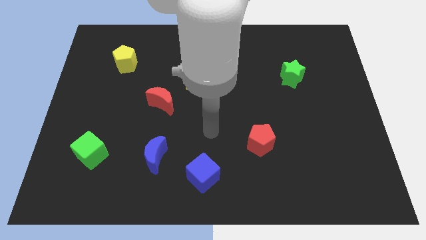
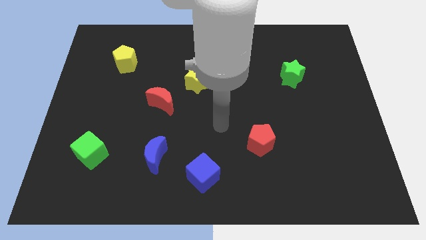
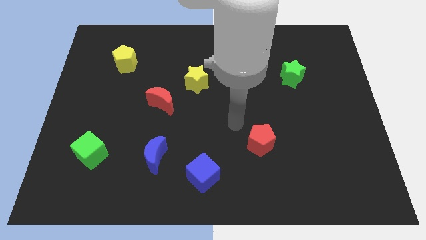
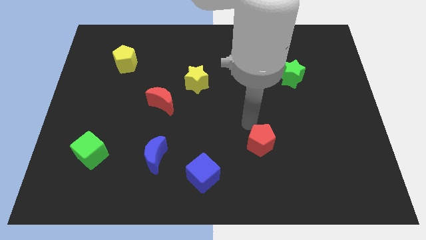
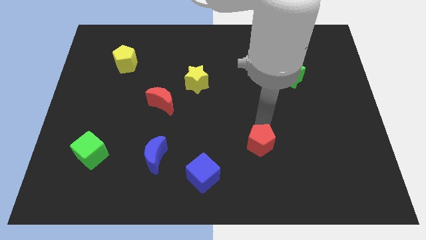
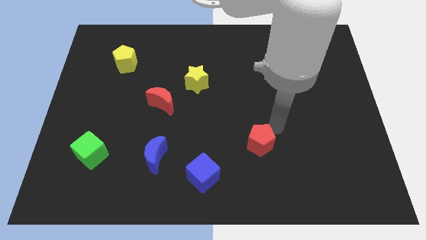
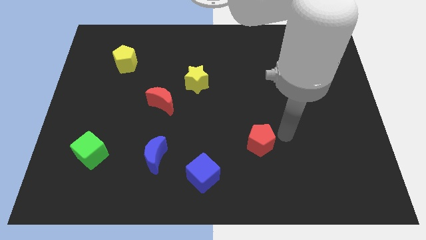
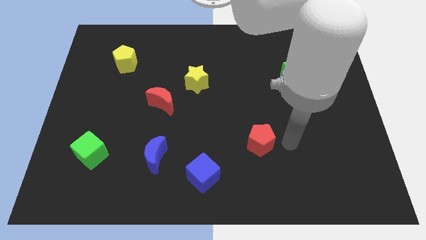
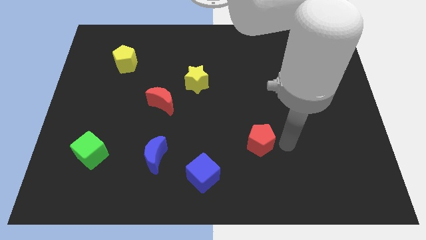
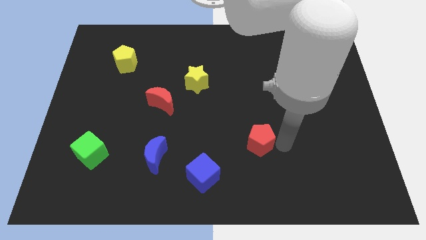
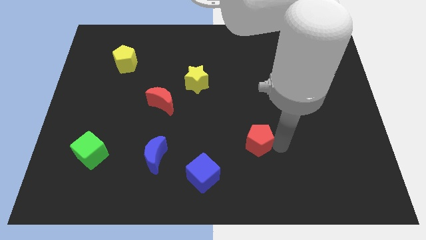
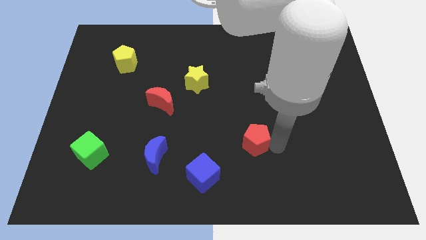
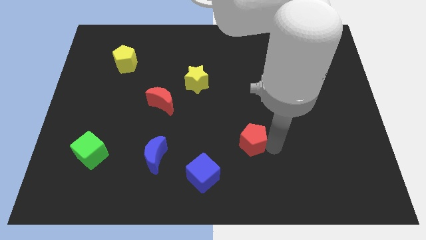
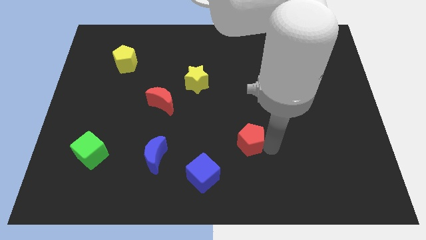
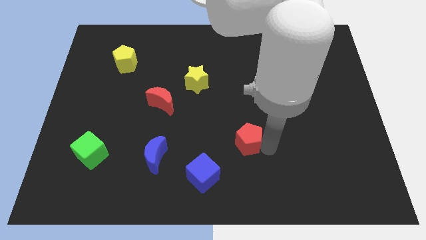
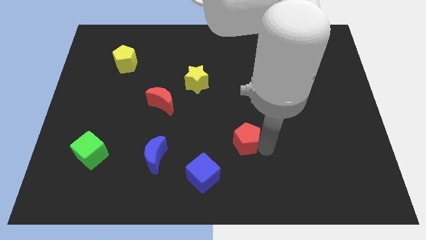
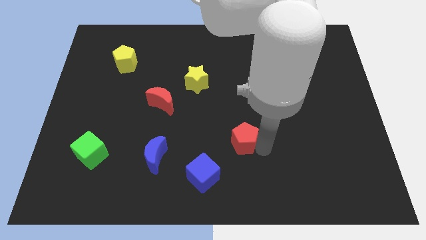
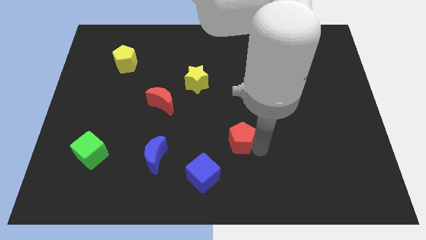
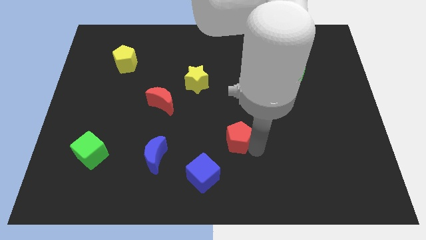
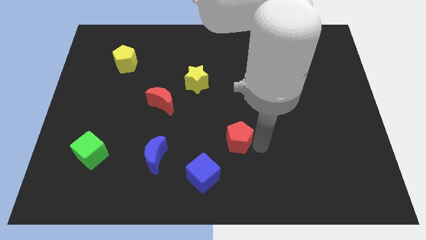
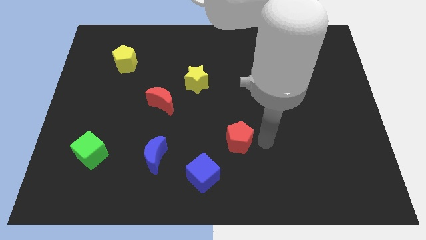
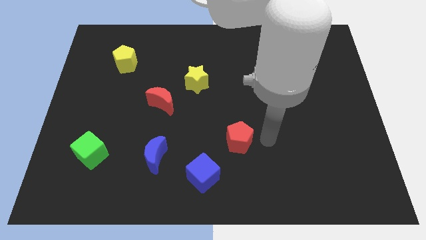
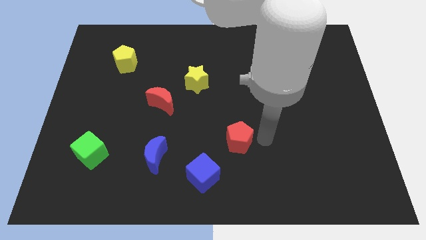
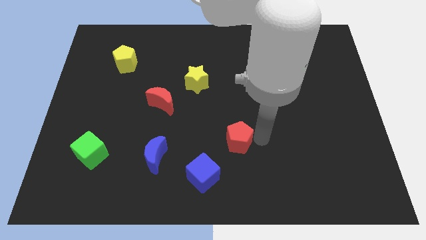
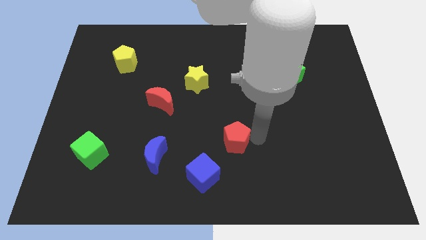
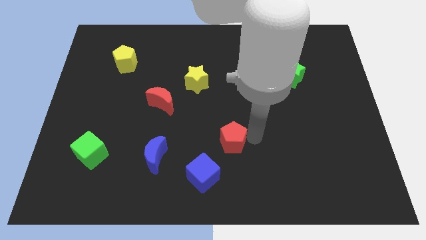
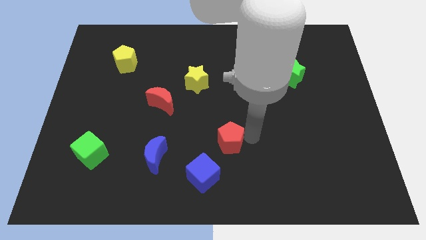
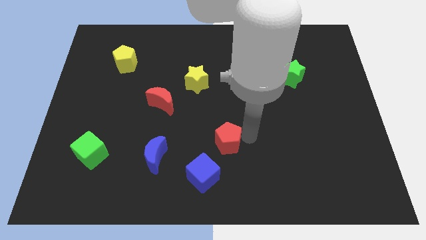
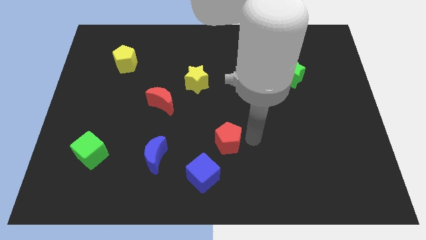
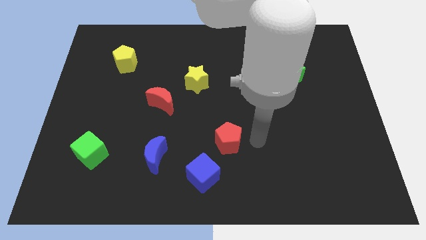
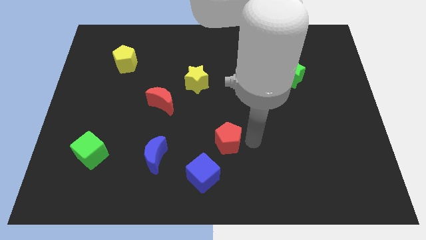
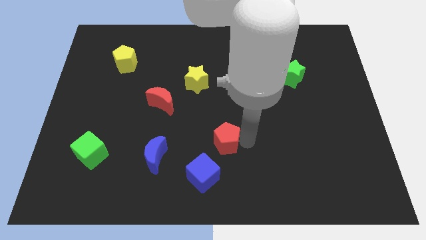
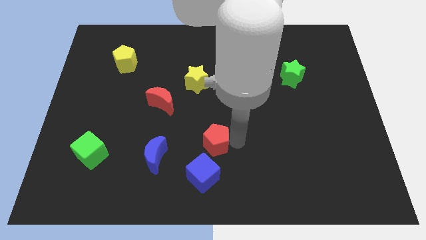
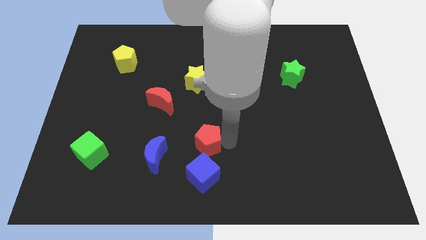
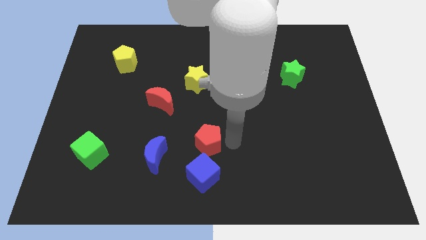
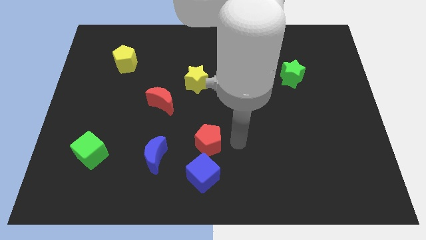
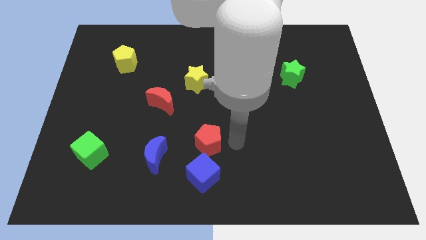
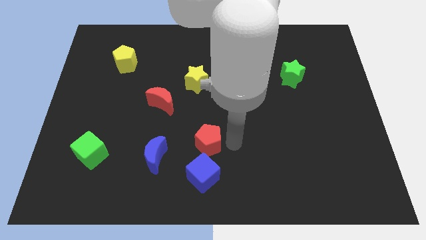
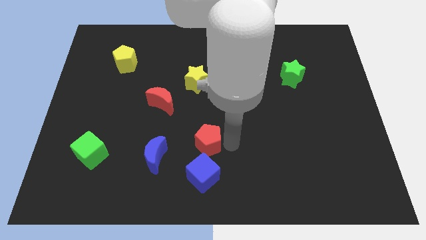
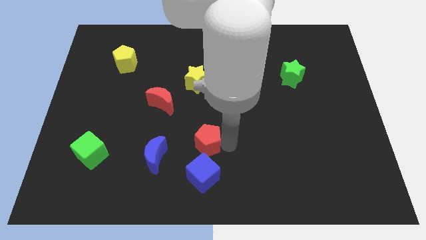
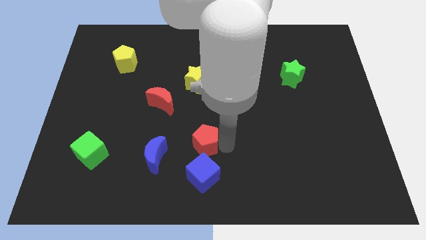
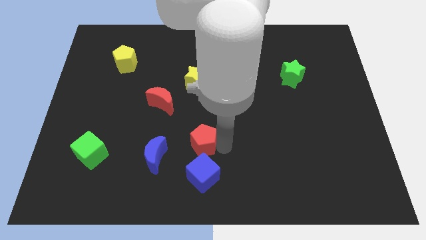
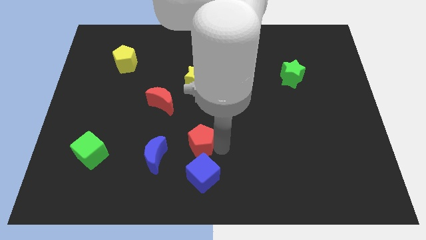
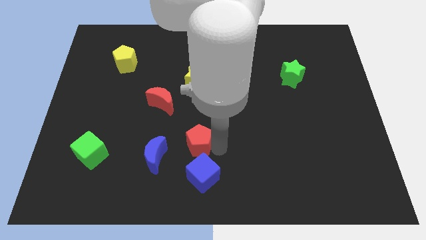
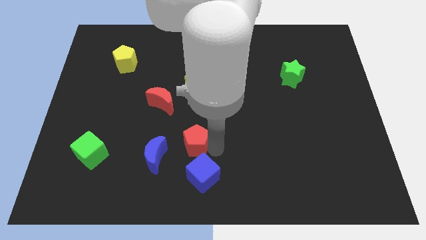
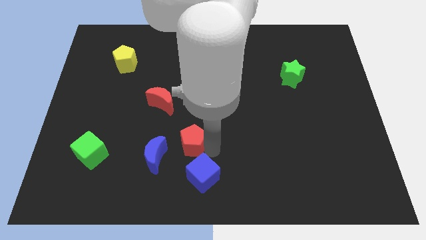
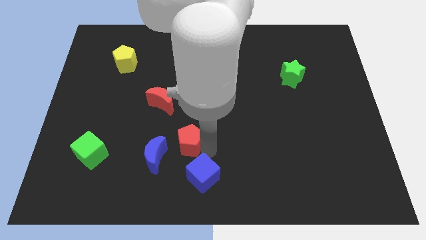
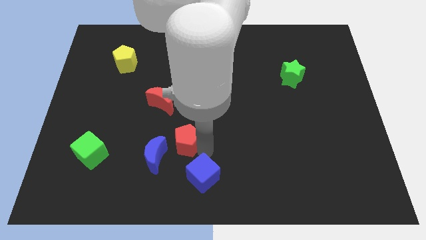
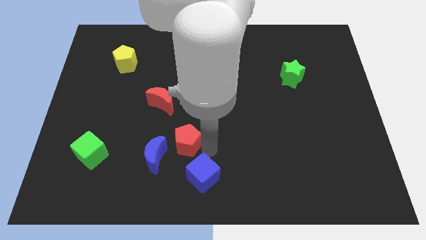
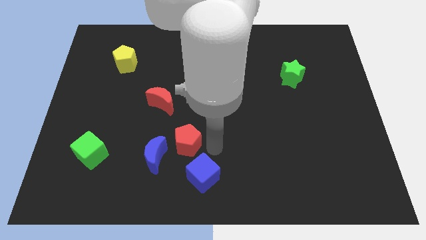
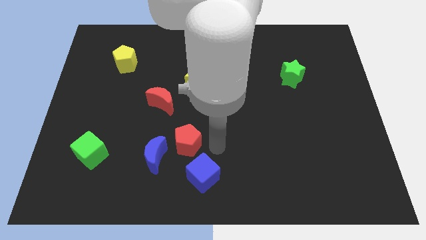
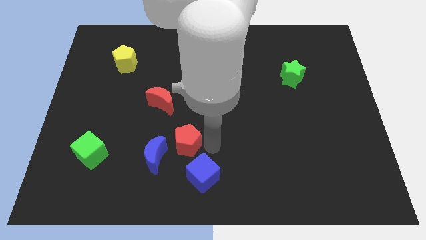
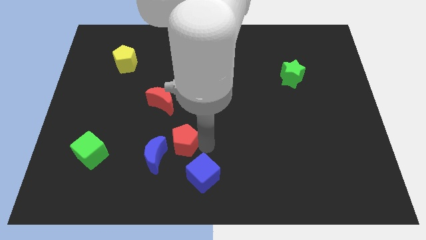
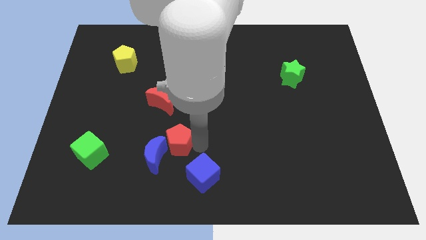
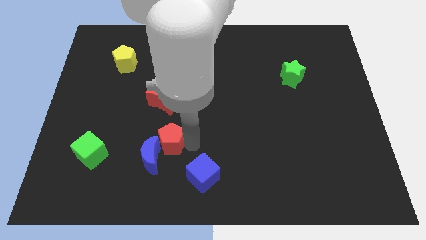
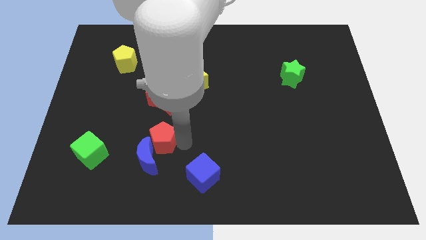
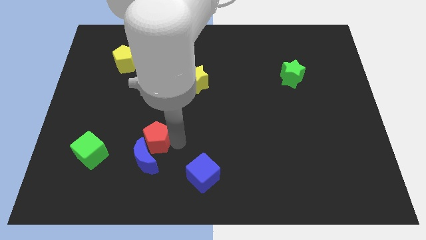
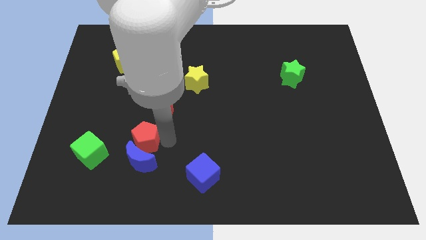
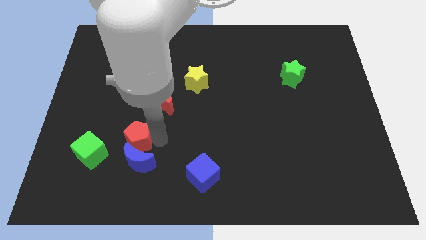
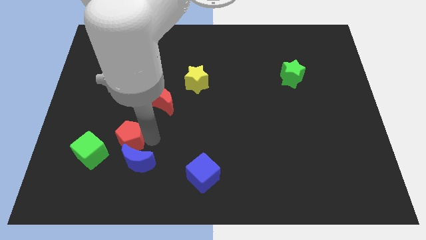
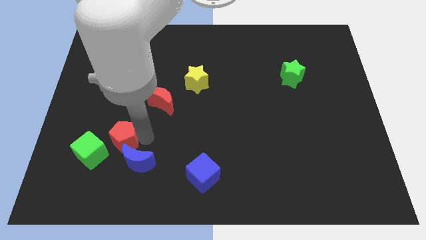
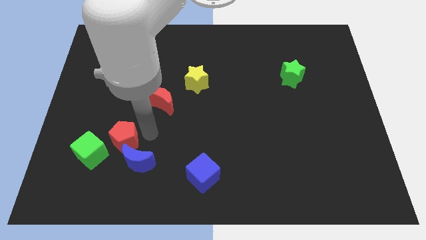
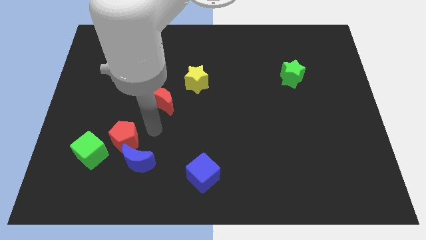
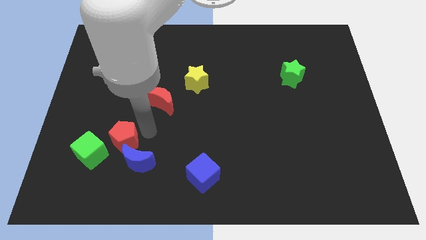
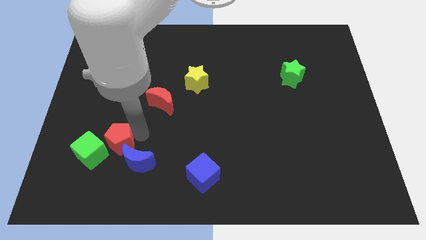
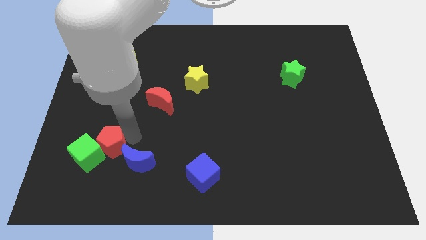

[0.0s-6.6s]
move the red pentagon close to the green cube
